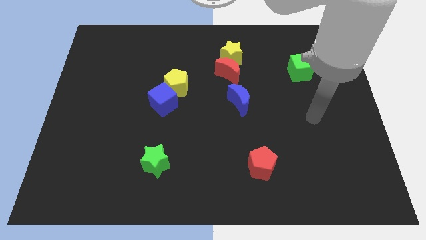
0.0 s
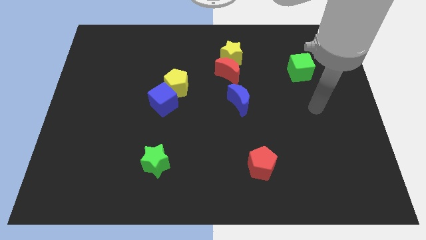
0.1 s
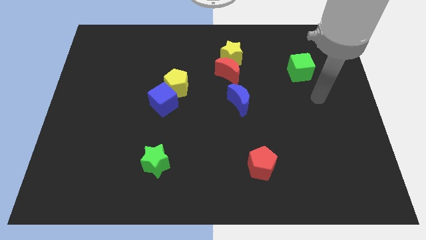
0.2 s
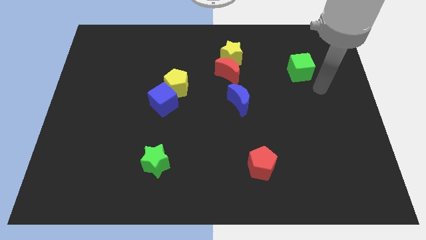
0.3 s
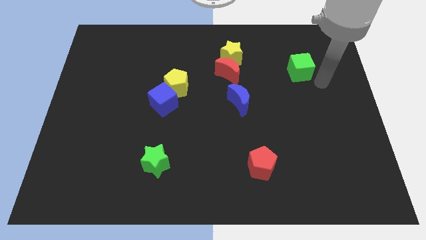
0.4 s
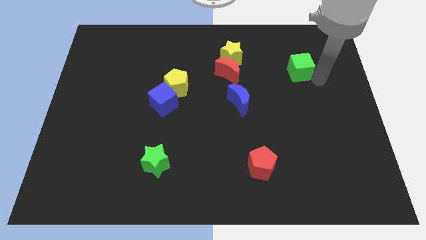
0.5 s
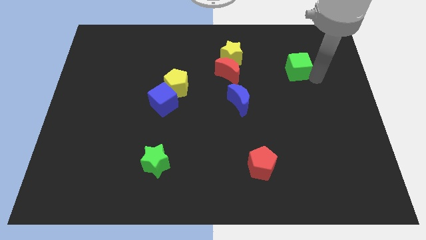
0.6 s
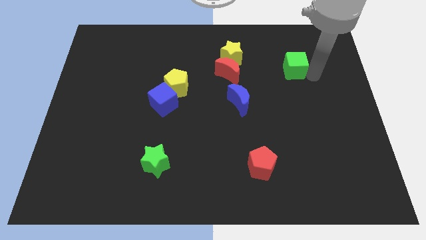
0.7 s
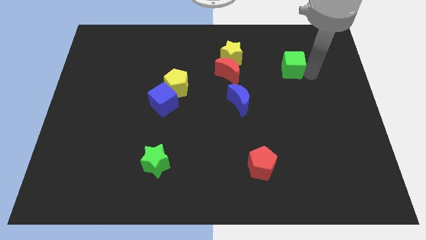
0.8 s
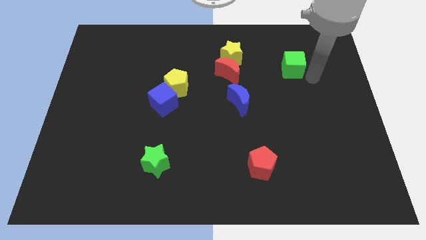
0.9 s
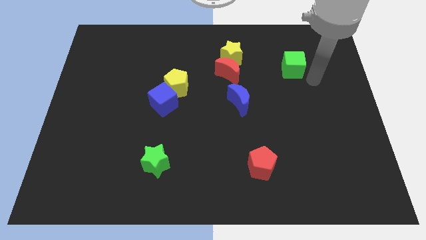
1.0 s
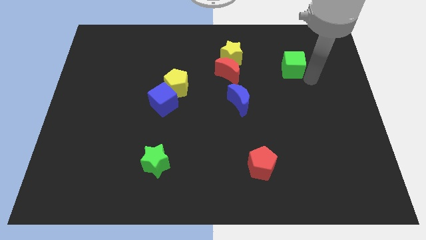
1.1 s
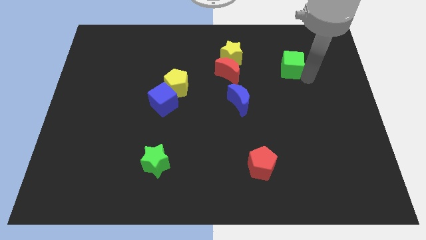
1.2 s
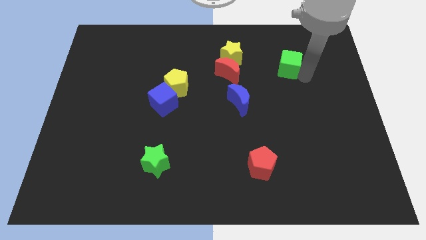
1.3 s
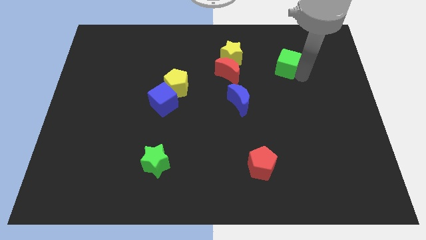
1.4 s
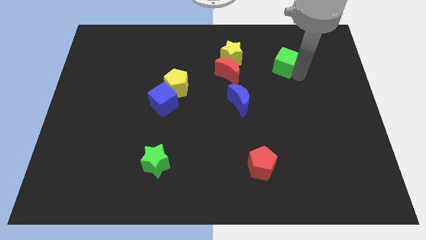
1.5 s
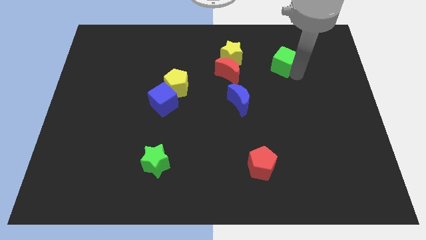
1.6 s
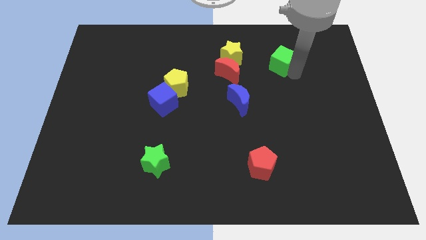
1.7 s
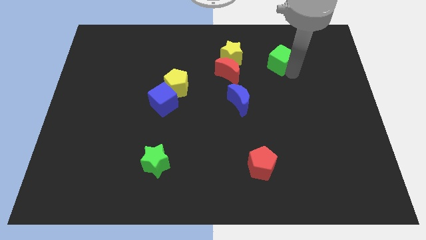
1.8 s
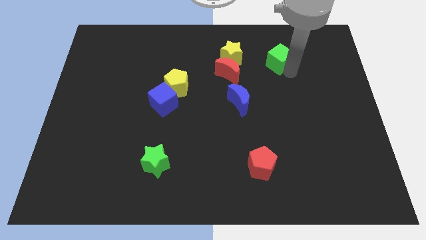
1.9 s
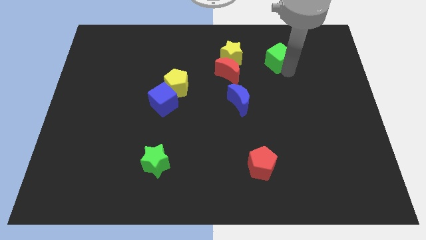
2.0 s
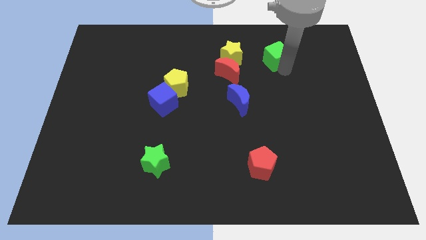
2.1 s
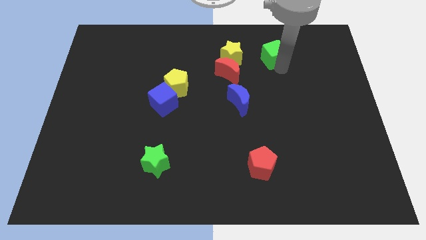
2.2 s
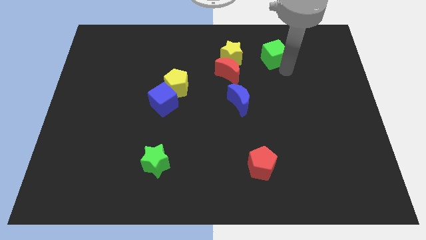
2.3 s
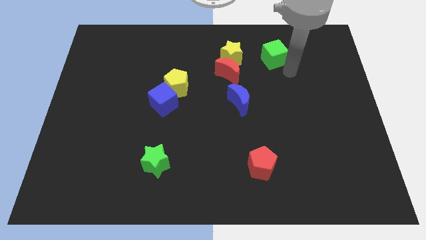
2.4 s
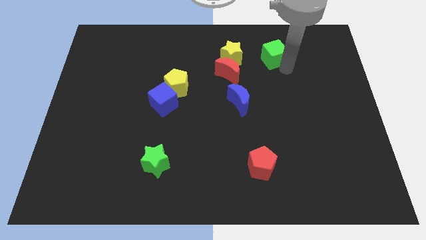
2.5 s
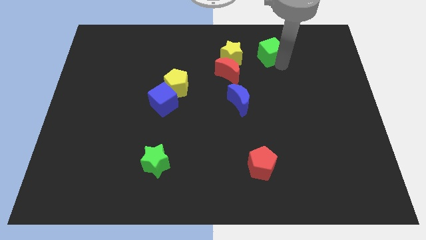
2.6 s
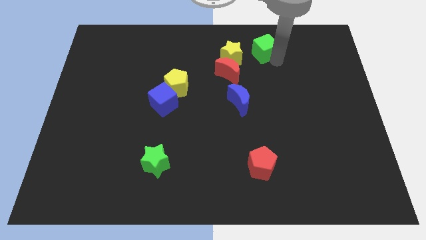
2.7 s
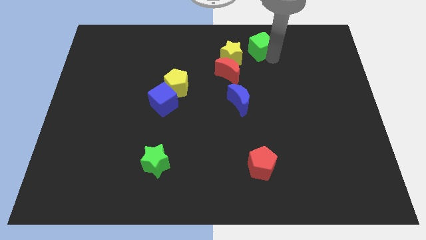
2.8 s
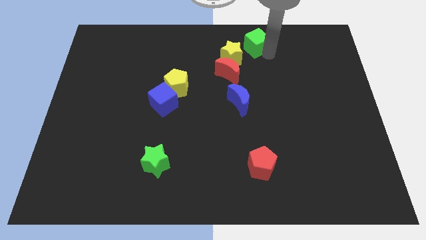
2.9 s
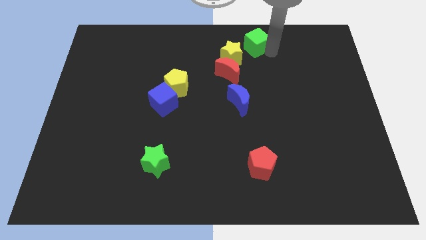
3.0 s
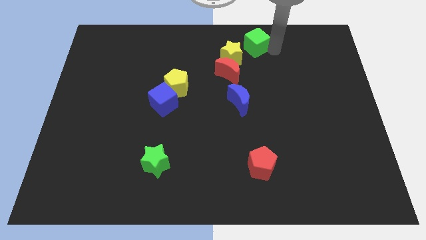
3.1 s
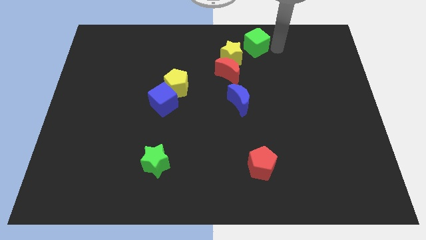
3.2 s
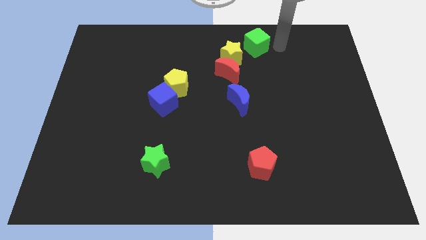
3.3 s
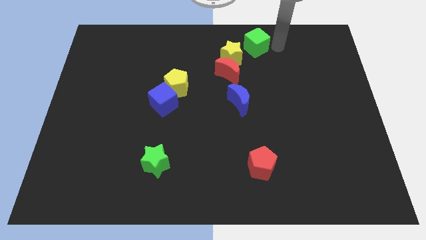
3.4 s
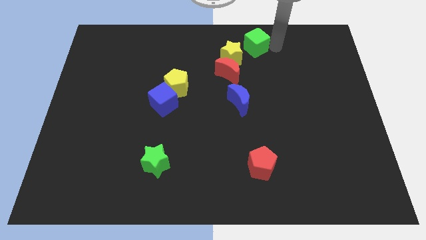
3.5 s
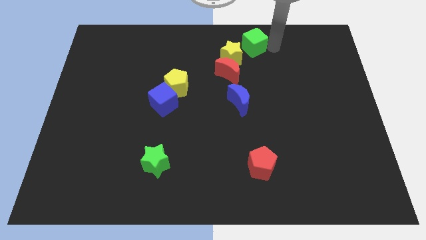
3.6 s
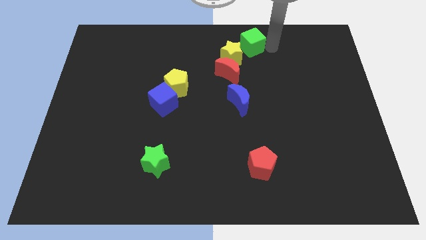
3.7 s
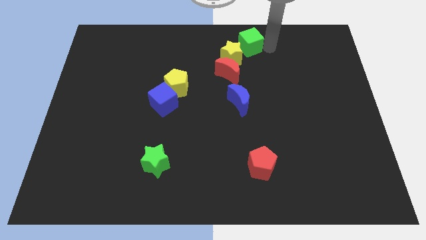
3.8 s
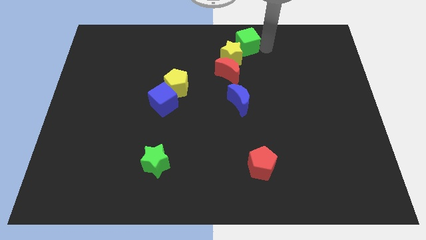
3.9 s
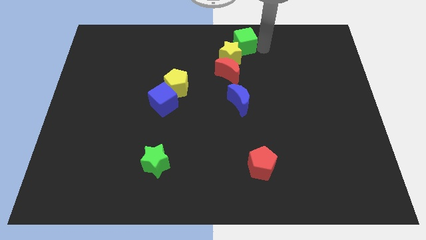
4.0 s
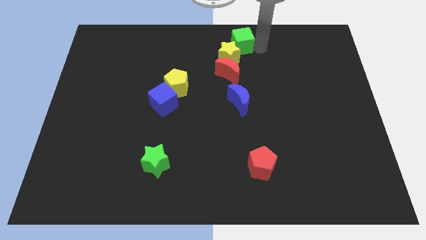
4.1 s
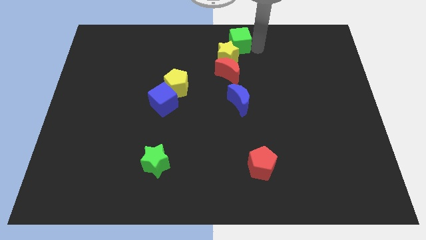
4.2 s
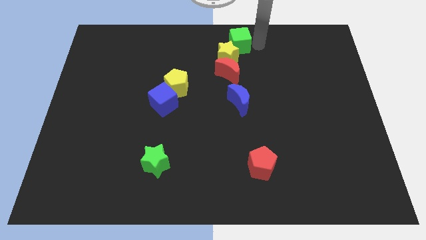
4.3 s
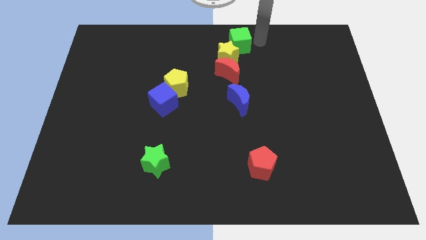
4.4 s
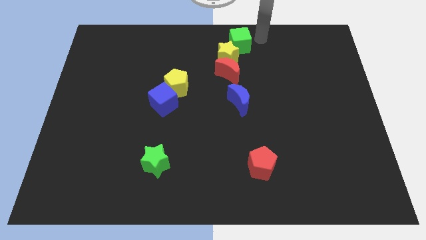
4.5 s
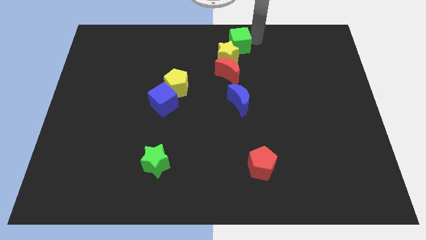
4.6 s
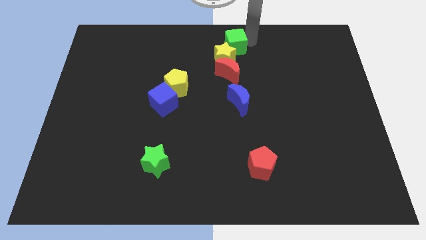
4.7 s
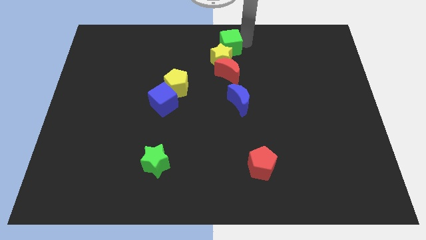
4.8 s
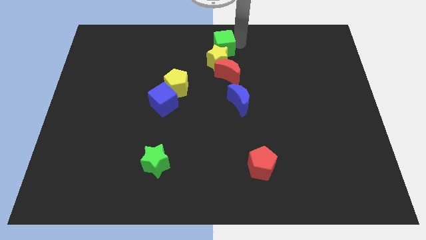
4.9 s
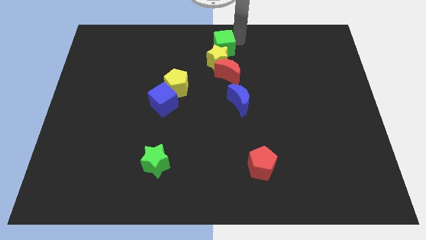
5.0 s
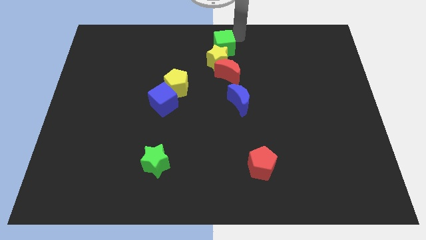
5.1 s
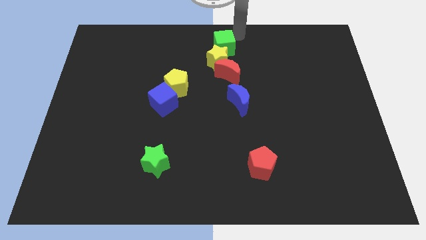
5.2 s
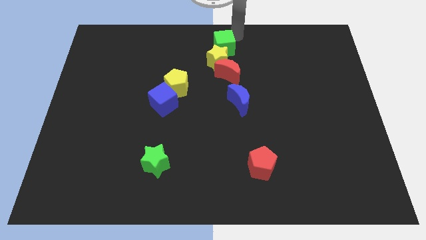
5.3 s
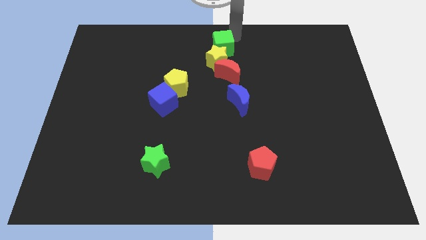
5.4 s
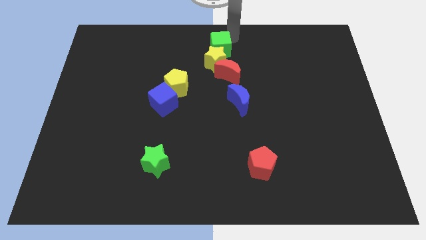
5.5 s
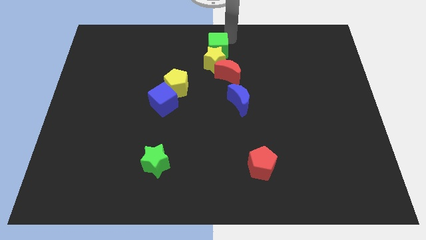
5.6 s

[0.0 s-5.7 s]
put the green cube to the top left of the red moon

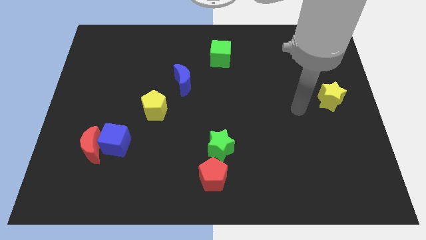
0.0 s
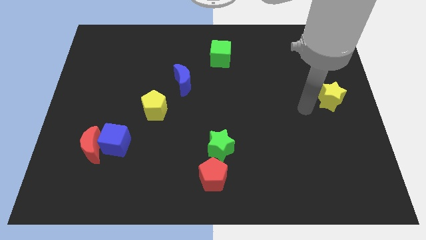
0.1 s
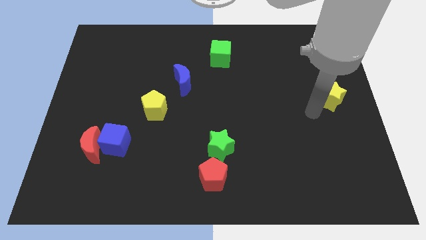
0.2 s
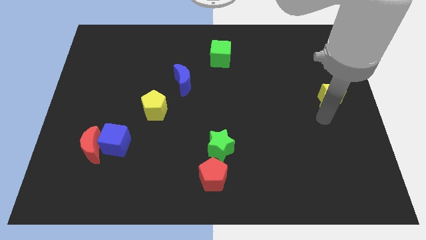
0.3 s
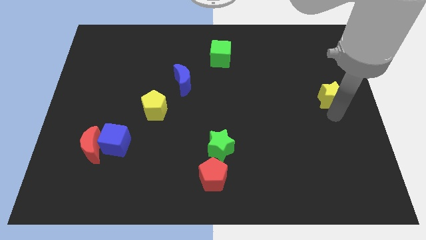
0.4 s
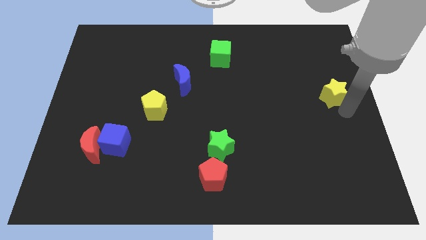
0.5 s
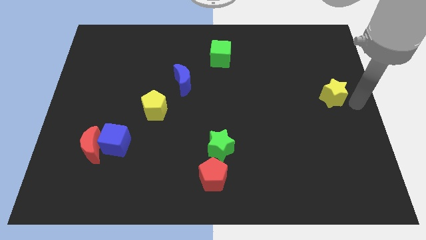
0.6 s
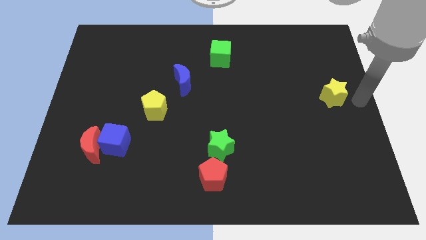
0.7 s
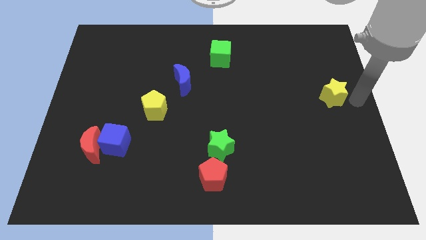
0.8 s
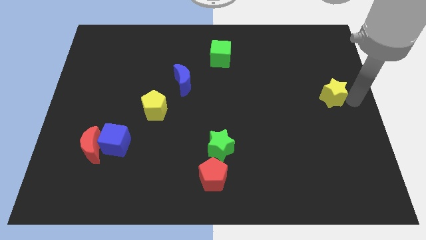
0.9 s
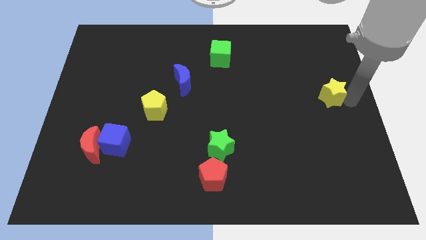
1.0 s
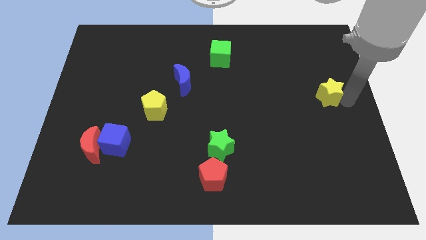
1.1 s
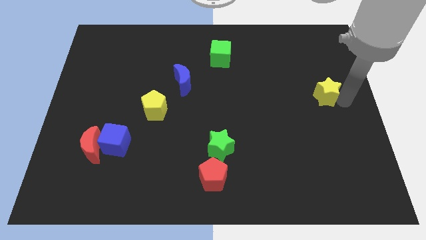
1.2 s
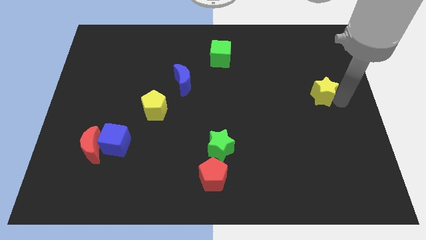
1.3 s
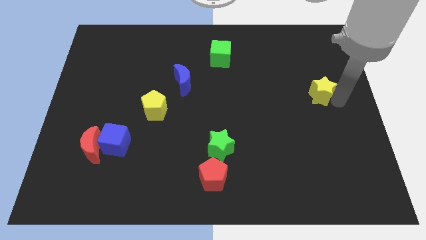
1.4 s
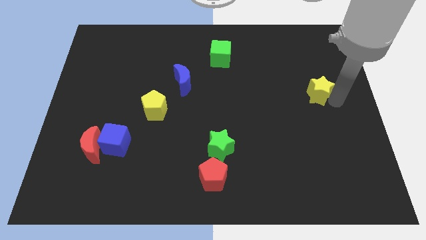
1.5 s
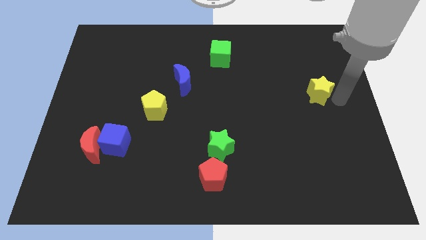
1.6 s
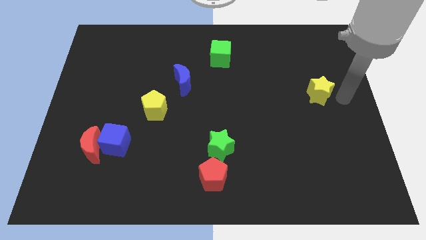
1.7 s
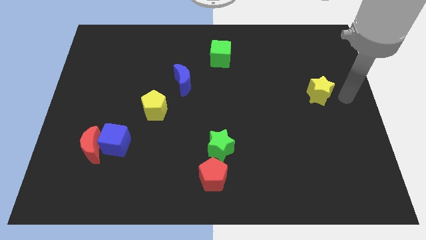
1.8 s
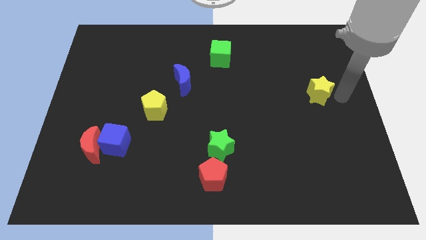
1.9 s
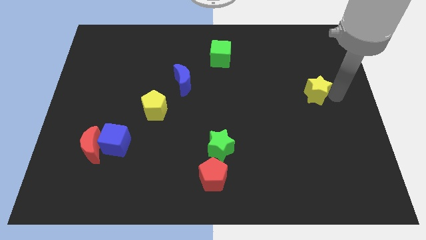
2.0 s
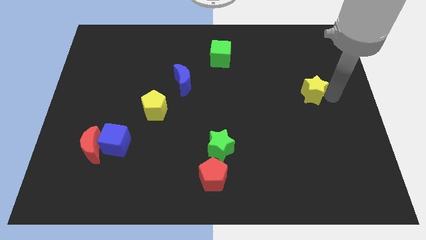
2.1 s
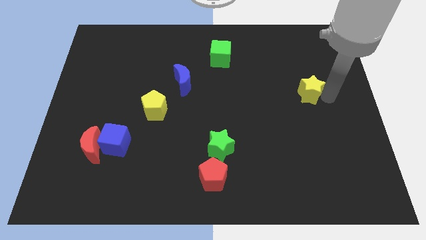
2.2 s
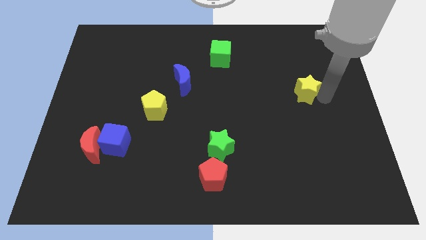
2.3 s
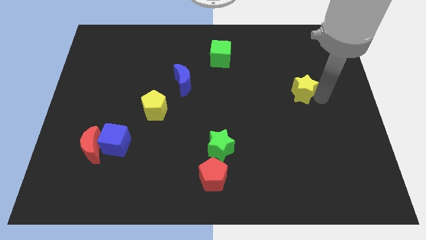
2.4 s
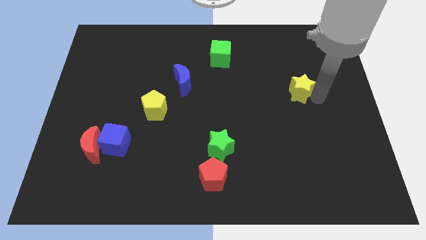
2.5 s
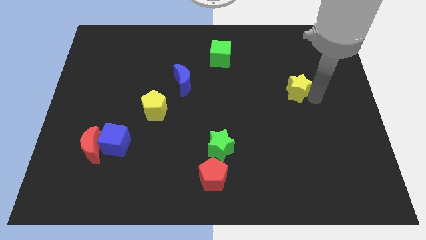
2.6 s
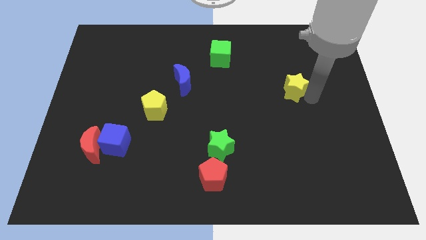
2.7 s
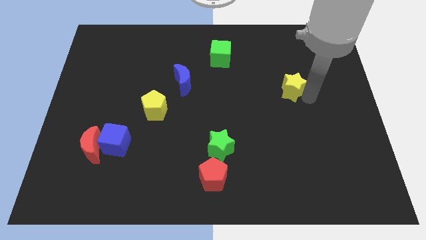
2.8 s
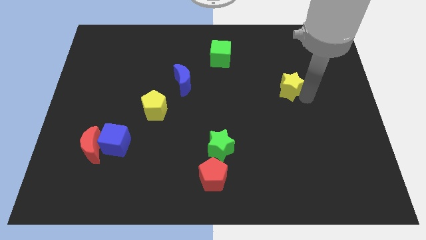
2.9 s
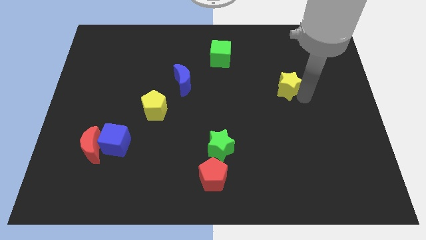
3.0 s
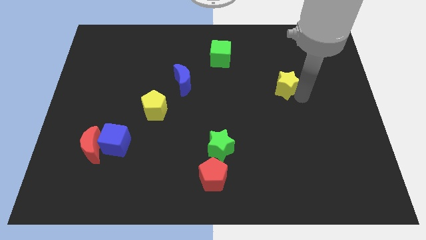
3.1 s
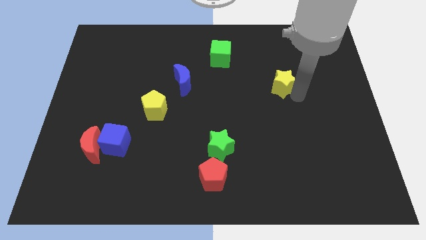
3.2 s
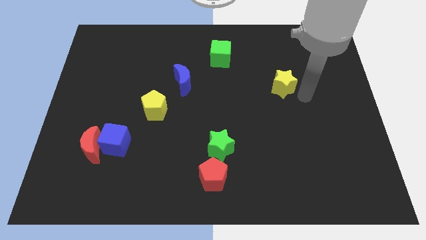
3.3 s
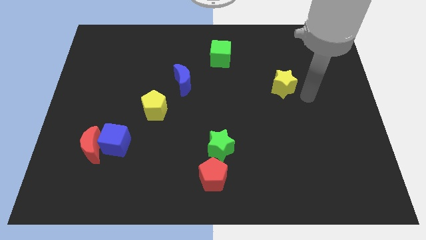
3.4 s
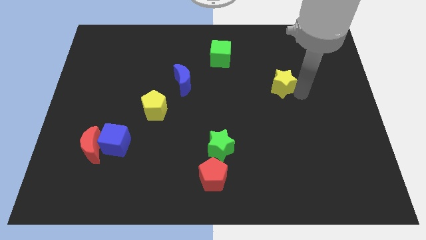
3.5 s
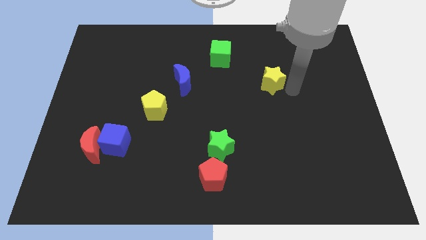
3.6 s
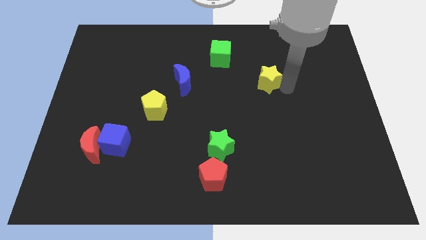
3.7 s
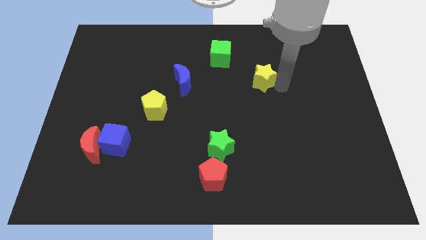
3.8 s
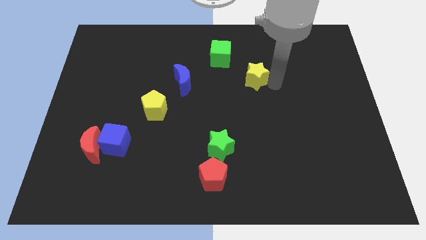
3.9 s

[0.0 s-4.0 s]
move the yellow star to the bottom right side of the green cube
